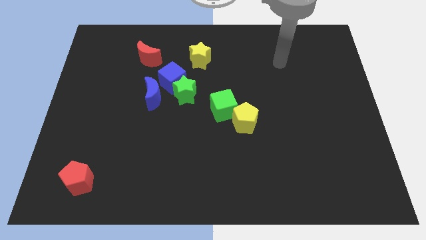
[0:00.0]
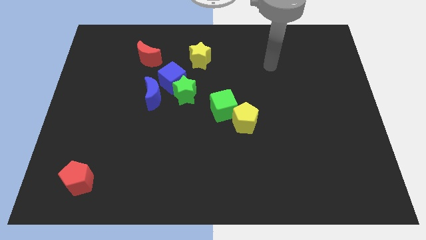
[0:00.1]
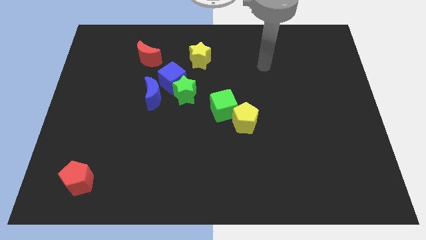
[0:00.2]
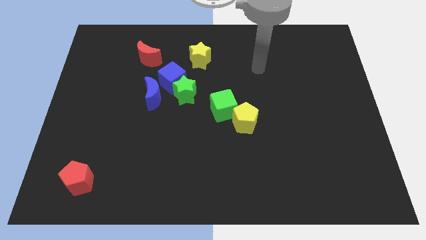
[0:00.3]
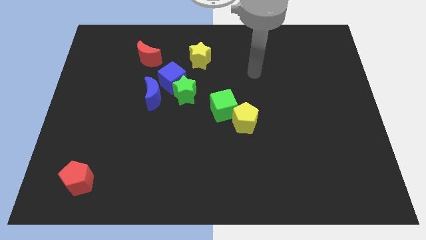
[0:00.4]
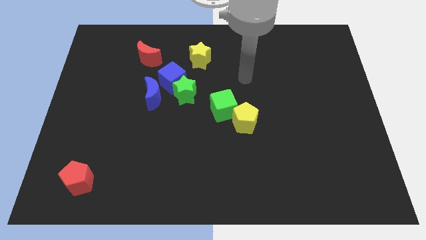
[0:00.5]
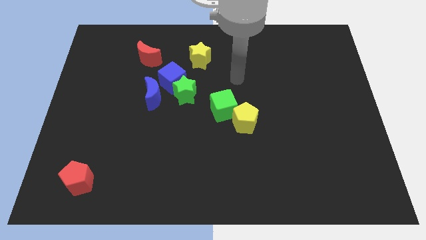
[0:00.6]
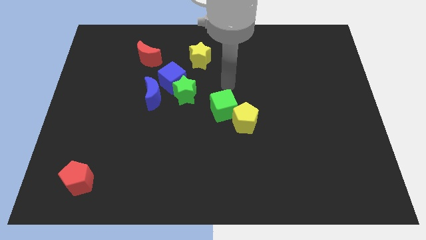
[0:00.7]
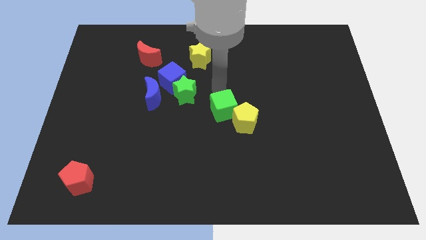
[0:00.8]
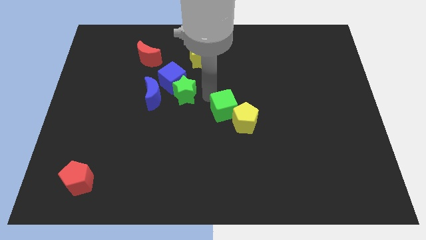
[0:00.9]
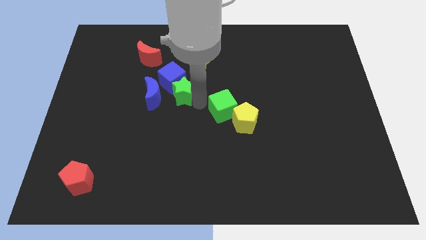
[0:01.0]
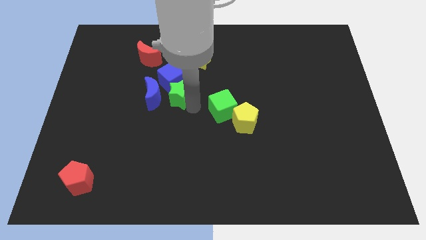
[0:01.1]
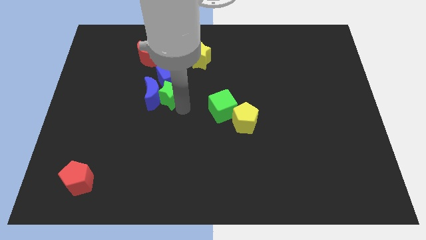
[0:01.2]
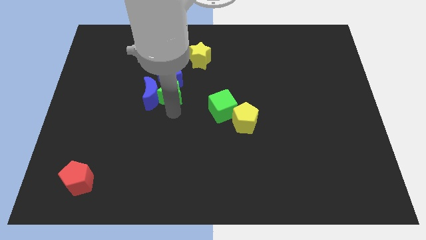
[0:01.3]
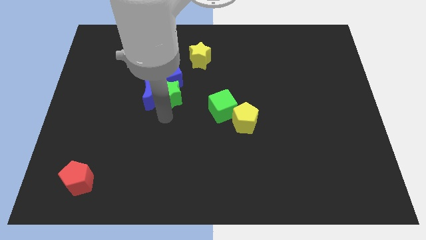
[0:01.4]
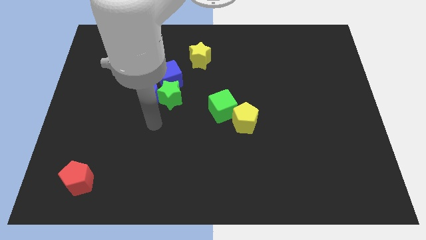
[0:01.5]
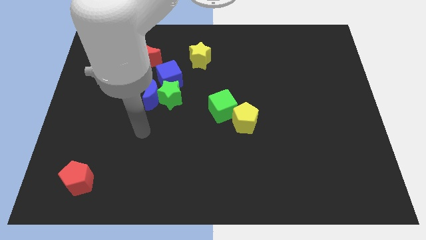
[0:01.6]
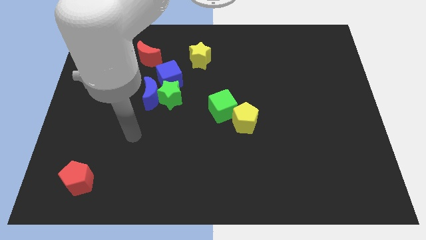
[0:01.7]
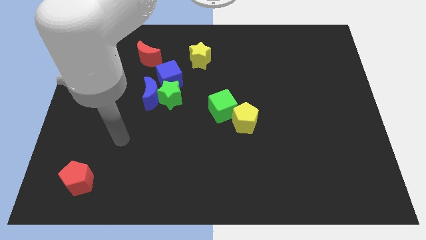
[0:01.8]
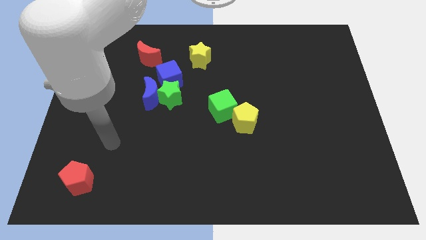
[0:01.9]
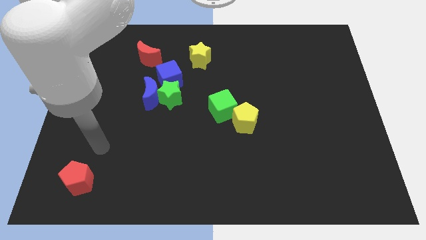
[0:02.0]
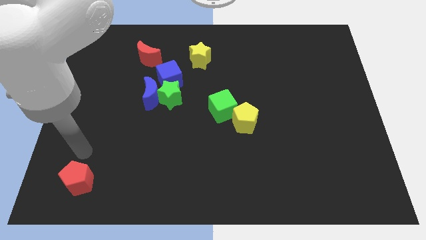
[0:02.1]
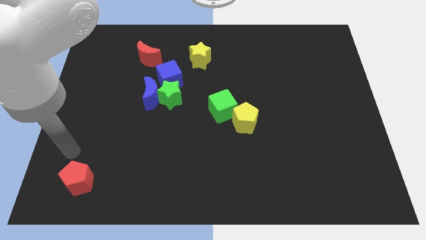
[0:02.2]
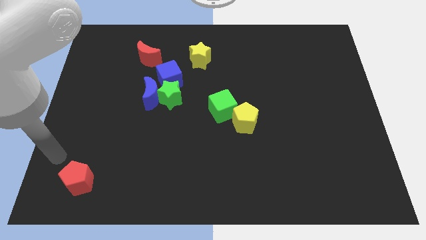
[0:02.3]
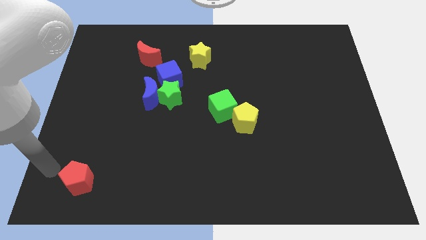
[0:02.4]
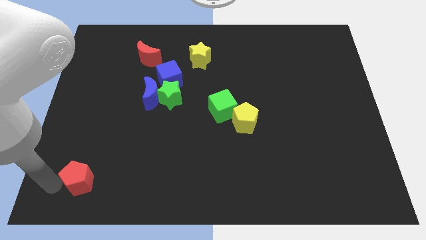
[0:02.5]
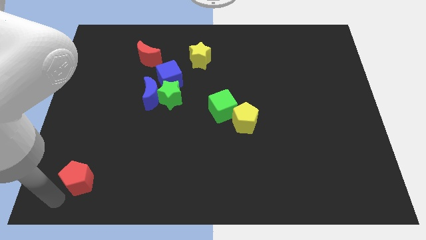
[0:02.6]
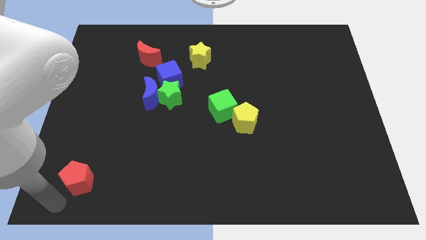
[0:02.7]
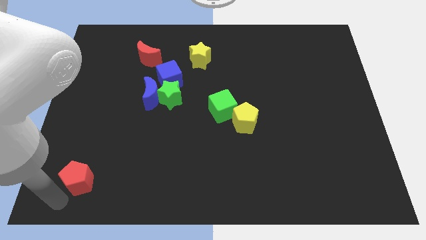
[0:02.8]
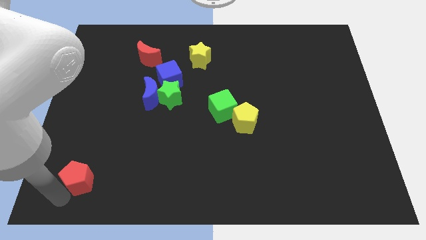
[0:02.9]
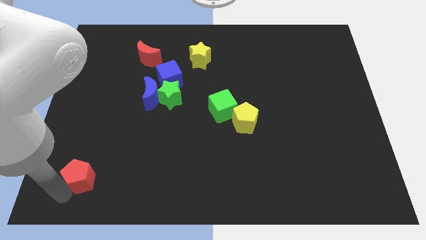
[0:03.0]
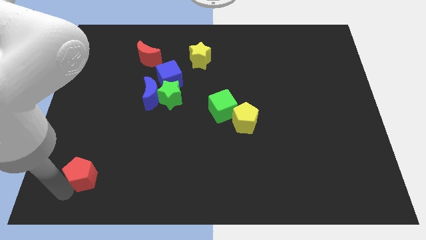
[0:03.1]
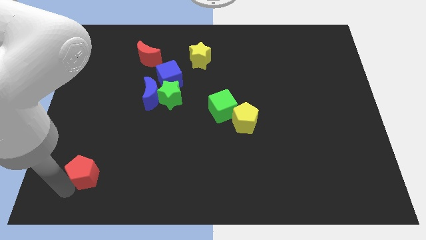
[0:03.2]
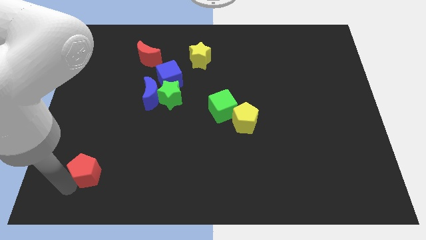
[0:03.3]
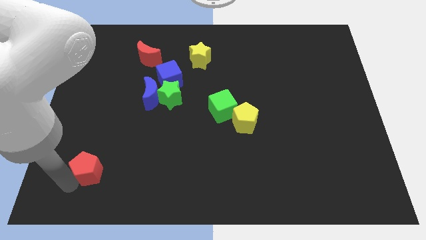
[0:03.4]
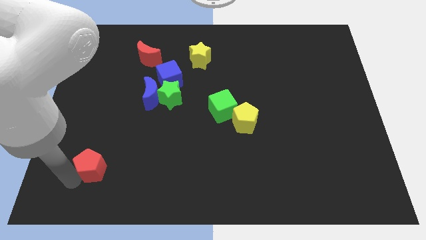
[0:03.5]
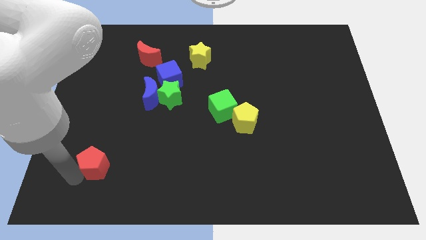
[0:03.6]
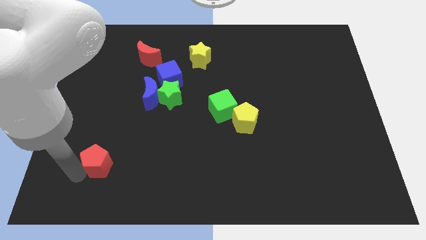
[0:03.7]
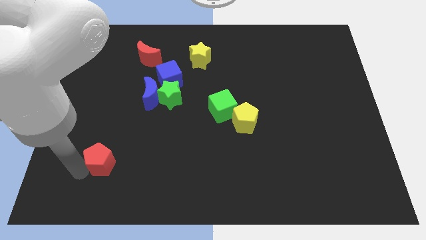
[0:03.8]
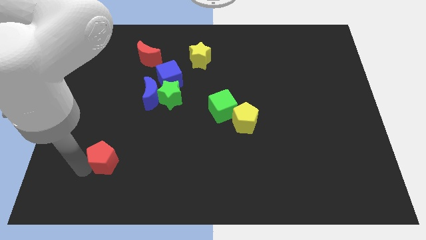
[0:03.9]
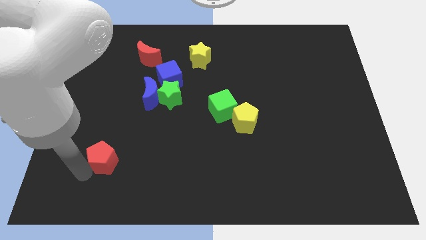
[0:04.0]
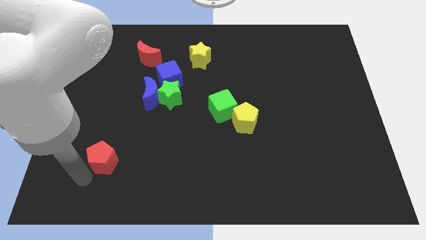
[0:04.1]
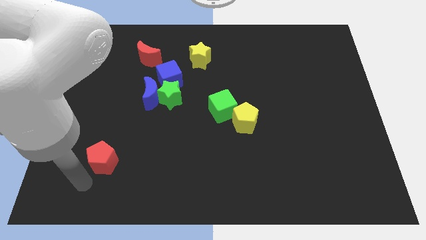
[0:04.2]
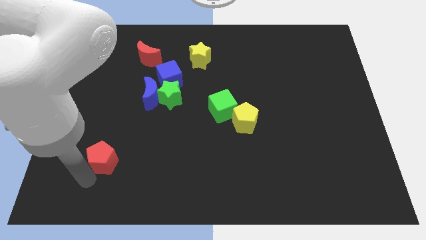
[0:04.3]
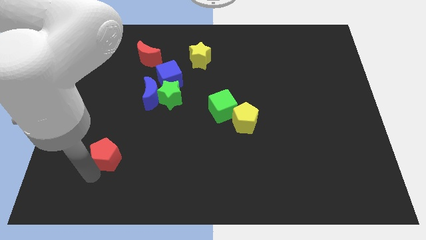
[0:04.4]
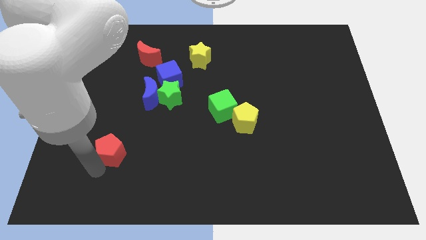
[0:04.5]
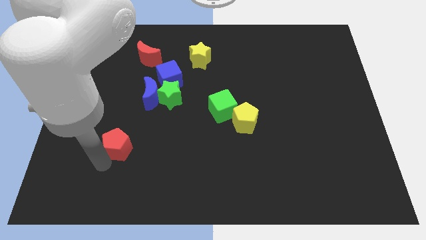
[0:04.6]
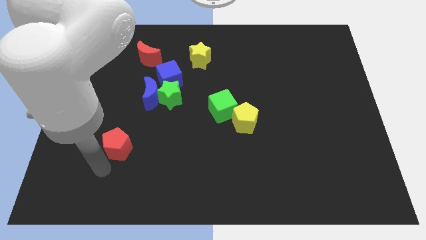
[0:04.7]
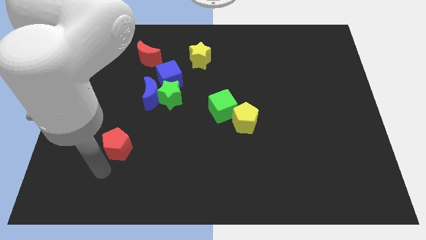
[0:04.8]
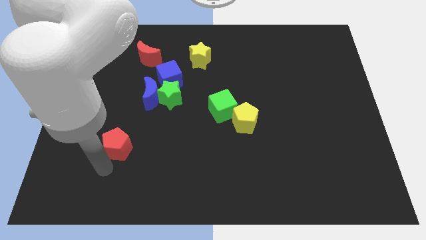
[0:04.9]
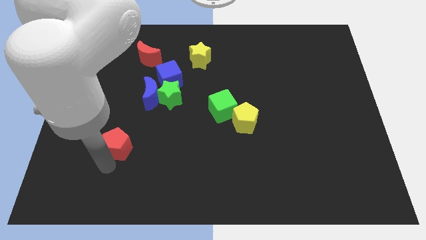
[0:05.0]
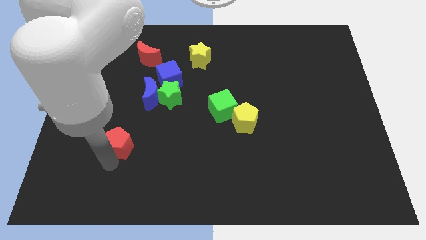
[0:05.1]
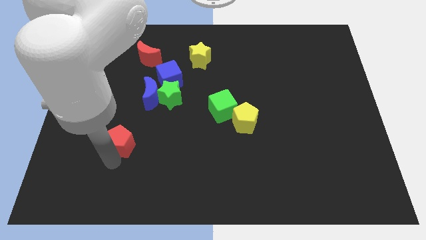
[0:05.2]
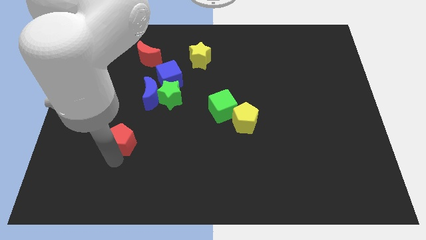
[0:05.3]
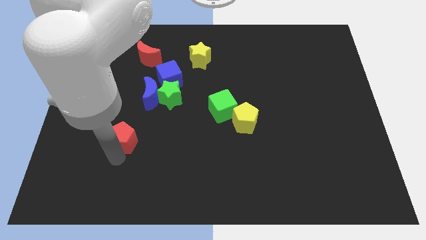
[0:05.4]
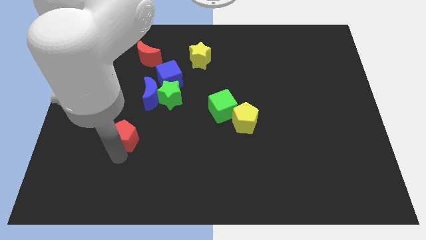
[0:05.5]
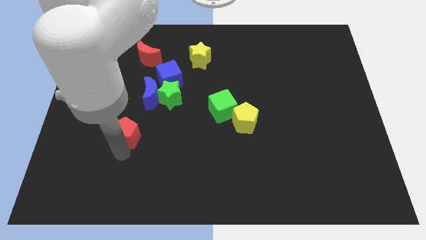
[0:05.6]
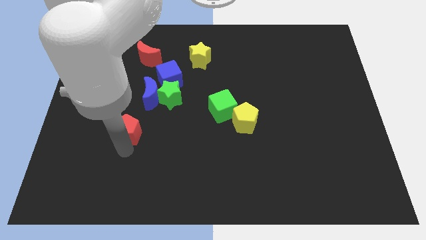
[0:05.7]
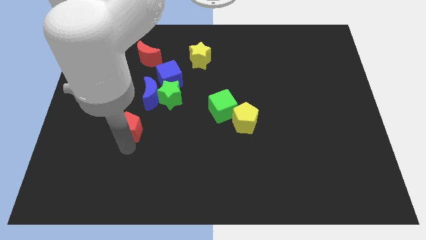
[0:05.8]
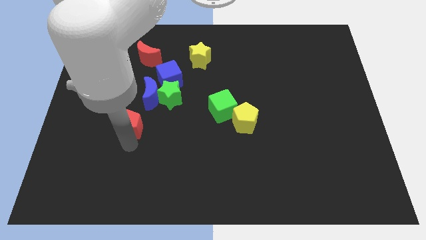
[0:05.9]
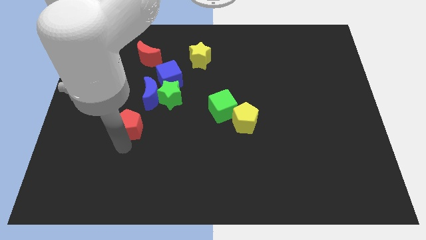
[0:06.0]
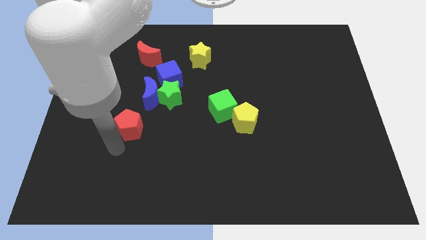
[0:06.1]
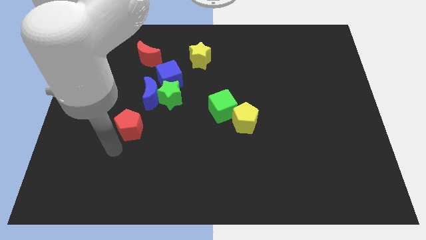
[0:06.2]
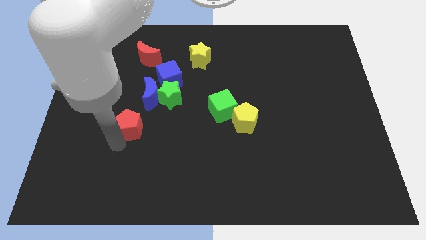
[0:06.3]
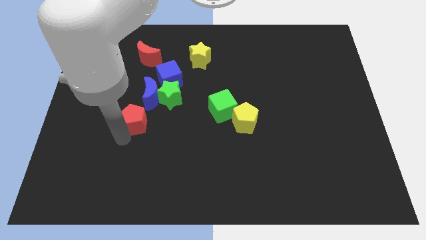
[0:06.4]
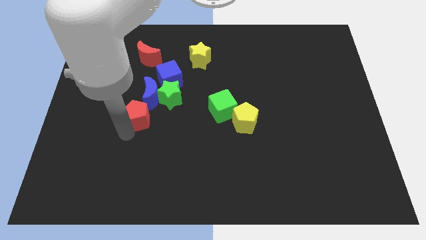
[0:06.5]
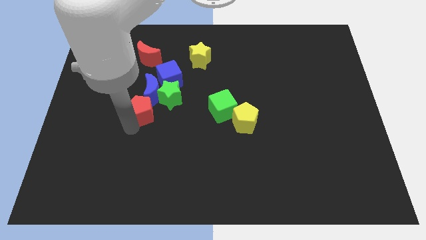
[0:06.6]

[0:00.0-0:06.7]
slide the red pentagon close to the blue moon

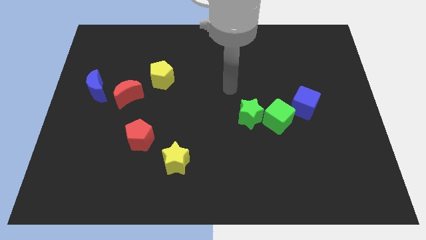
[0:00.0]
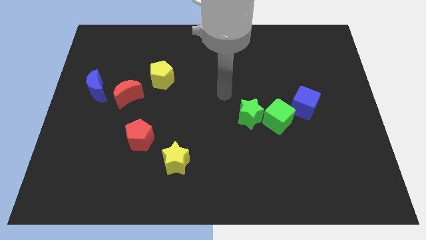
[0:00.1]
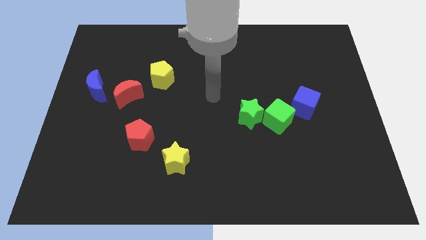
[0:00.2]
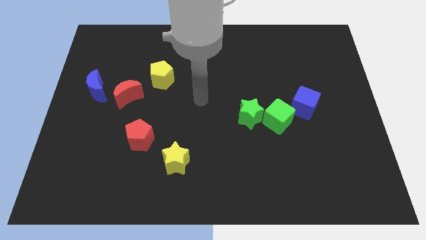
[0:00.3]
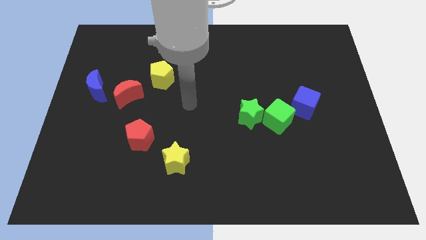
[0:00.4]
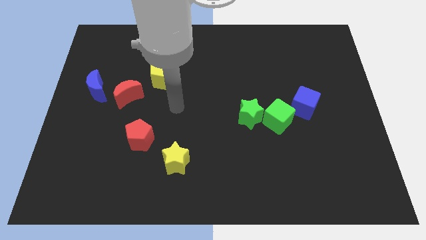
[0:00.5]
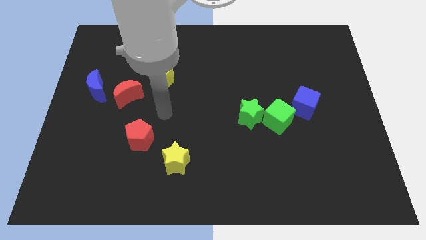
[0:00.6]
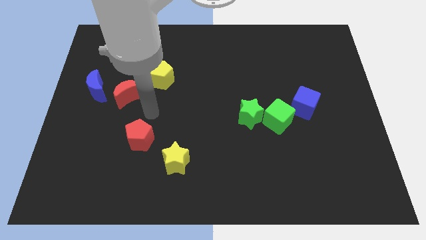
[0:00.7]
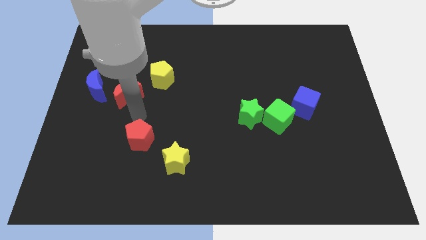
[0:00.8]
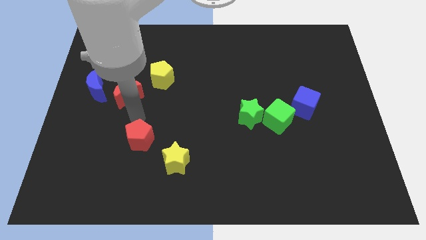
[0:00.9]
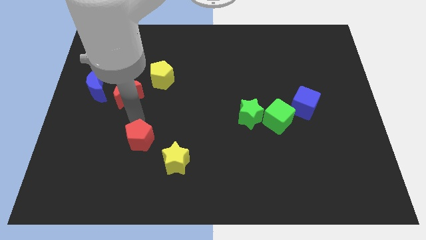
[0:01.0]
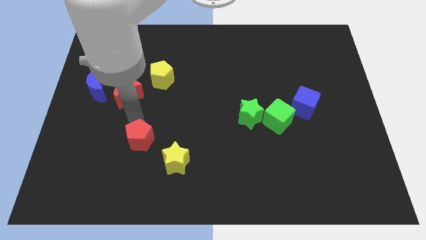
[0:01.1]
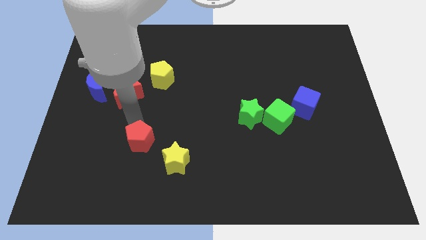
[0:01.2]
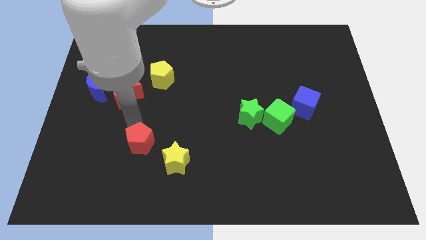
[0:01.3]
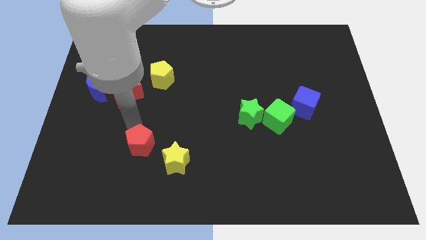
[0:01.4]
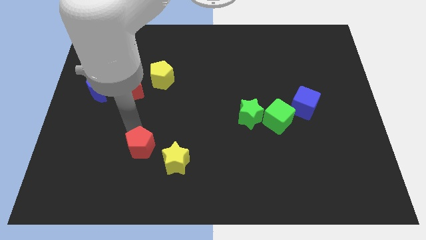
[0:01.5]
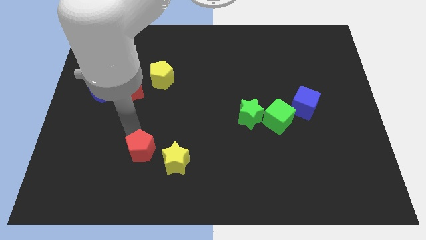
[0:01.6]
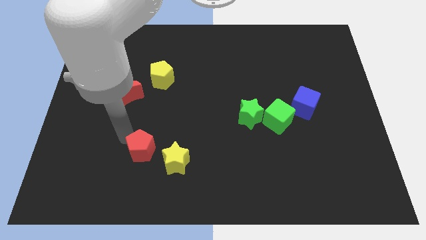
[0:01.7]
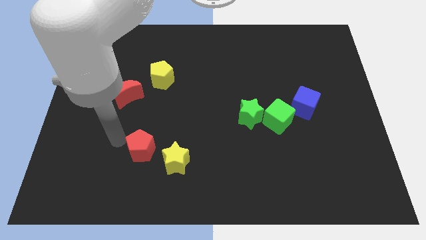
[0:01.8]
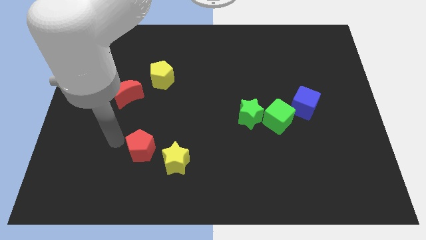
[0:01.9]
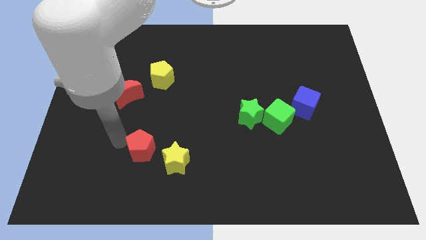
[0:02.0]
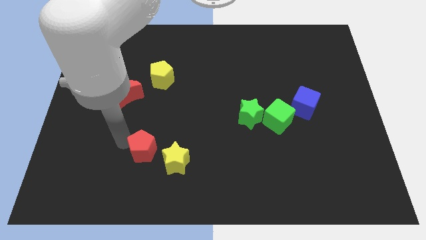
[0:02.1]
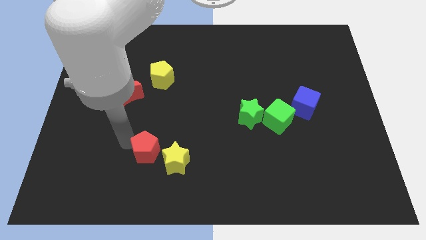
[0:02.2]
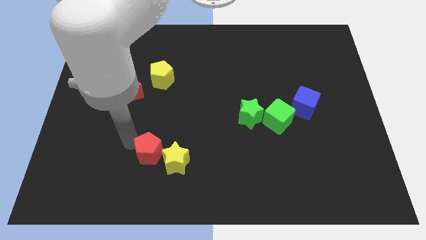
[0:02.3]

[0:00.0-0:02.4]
push the red pentagon next to the yellow star
